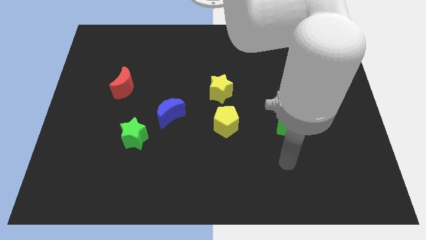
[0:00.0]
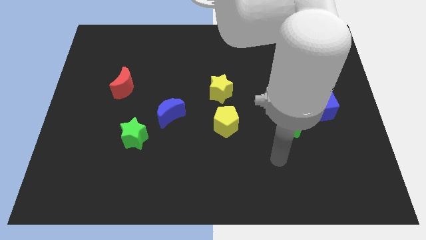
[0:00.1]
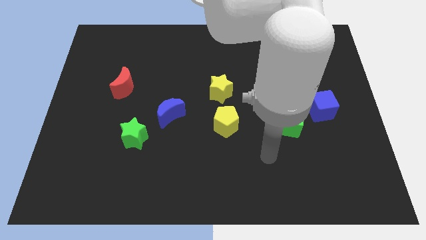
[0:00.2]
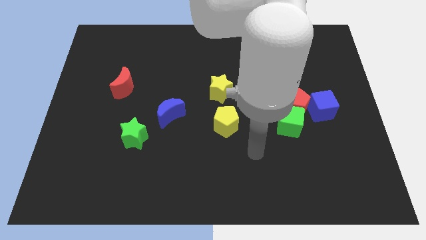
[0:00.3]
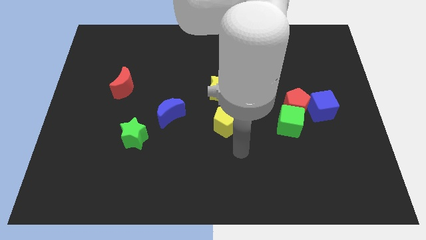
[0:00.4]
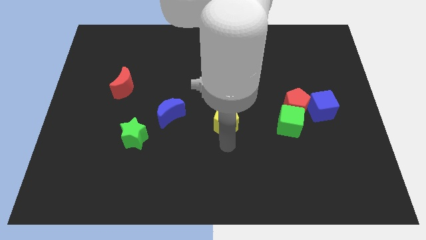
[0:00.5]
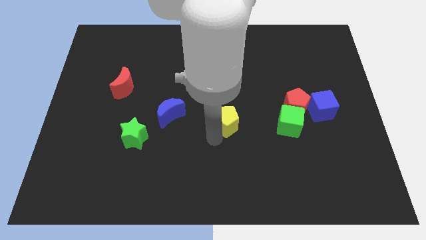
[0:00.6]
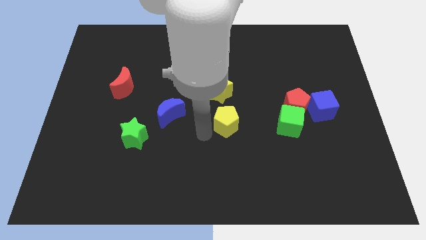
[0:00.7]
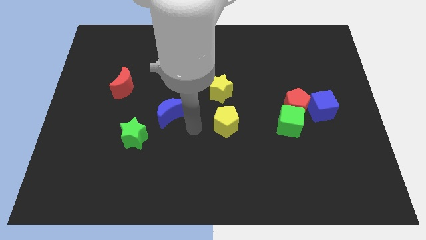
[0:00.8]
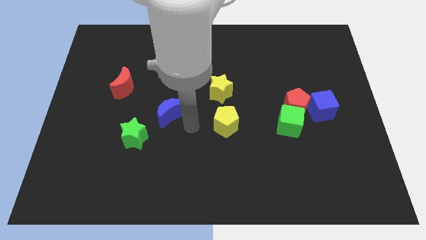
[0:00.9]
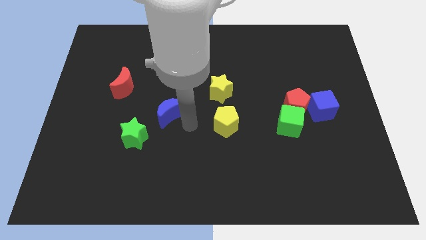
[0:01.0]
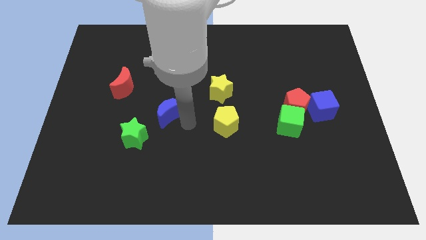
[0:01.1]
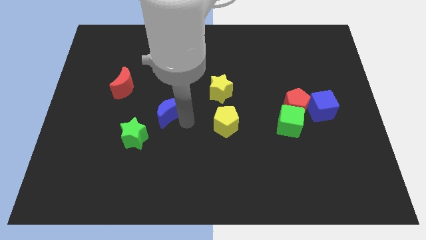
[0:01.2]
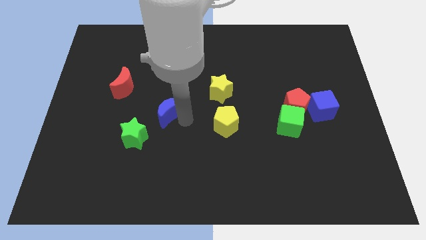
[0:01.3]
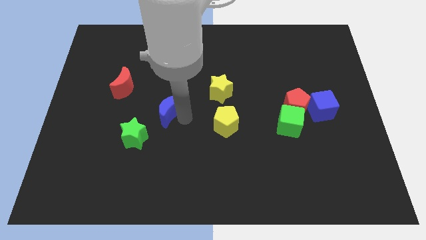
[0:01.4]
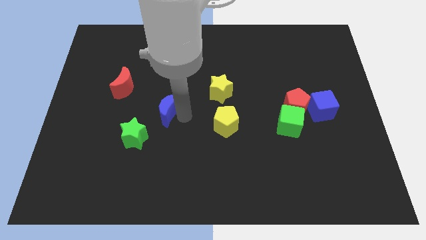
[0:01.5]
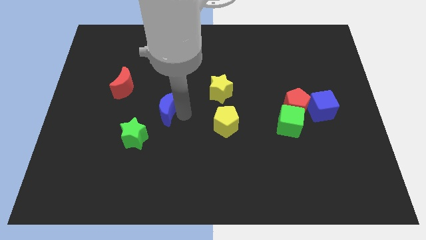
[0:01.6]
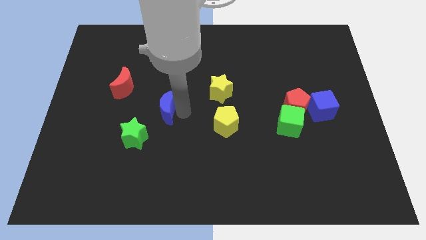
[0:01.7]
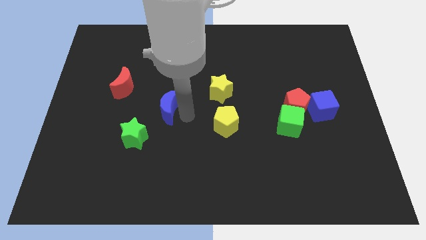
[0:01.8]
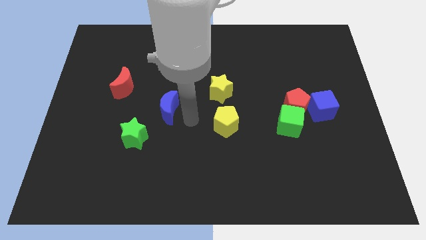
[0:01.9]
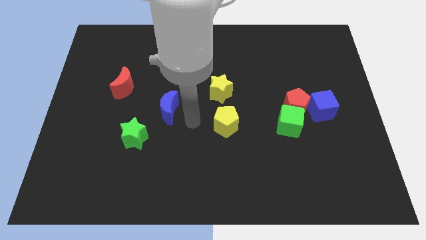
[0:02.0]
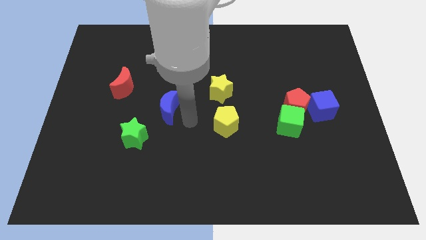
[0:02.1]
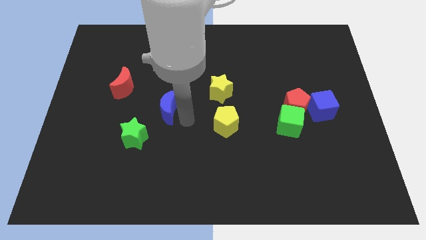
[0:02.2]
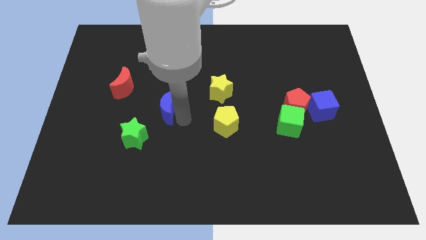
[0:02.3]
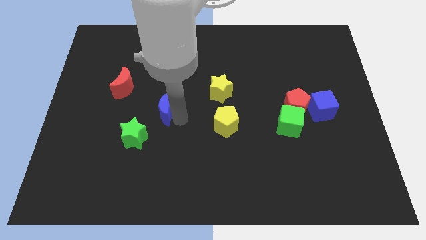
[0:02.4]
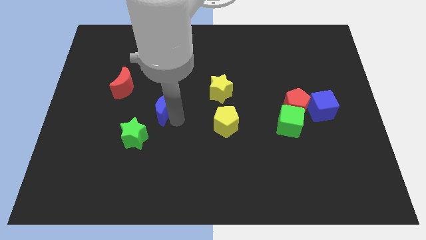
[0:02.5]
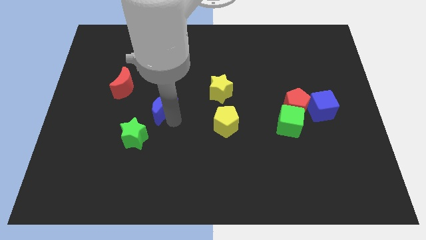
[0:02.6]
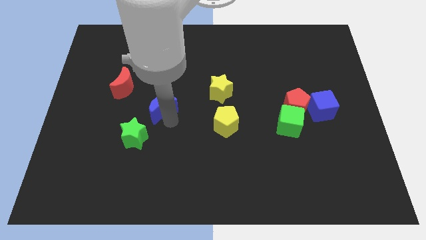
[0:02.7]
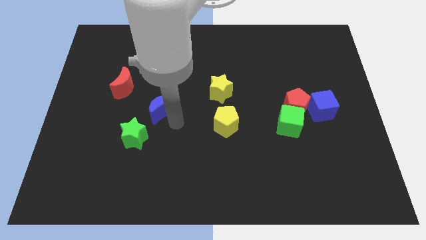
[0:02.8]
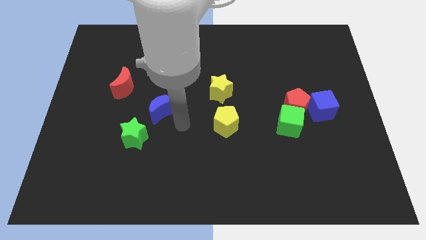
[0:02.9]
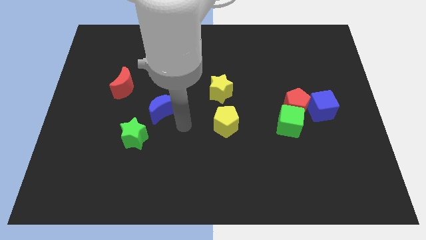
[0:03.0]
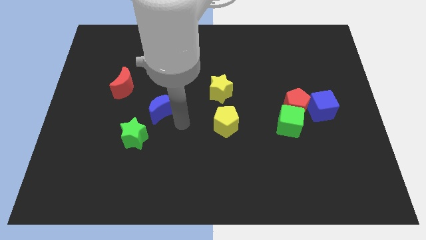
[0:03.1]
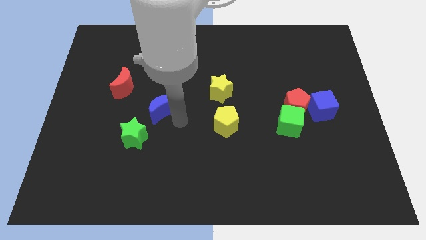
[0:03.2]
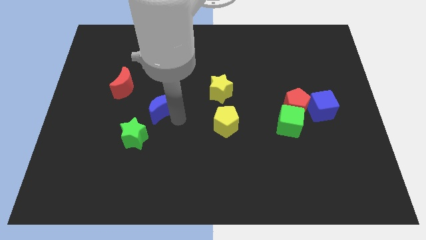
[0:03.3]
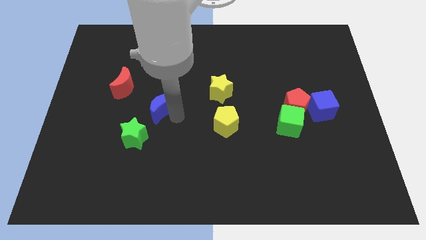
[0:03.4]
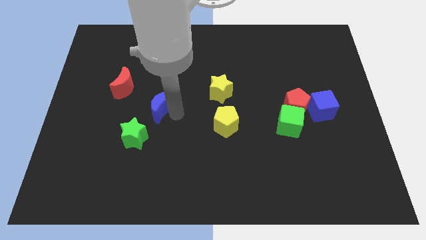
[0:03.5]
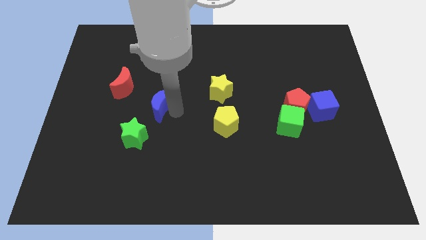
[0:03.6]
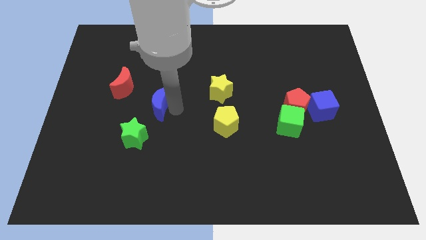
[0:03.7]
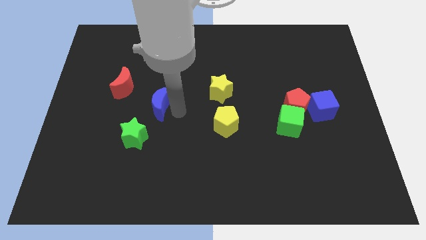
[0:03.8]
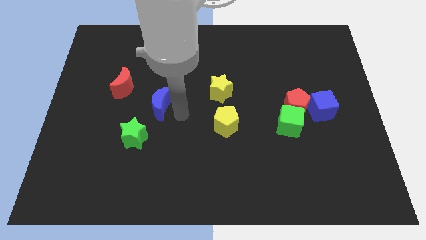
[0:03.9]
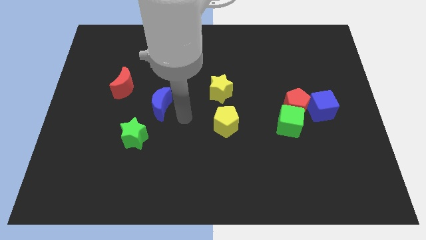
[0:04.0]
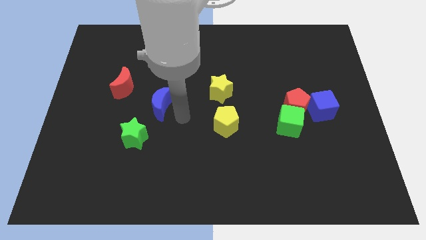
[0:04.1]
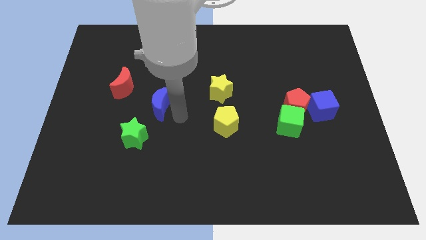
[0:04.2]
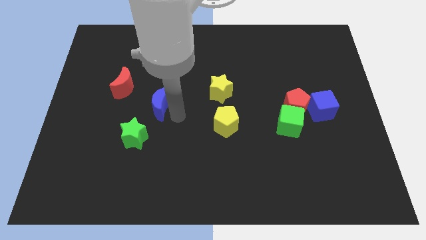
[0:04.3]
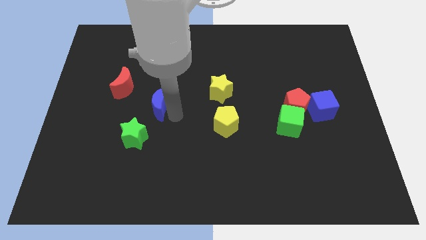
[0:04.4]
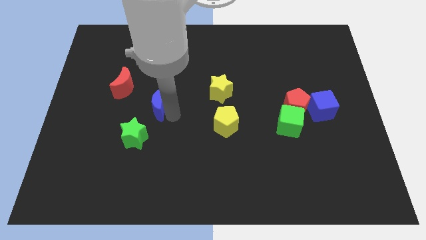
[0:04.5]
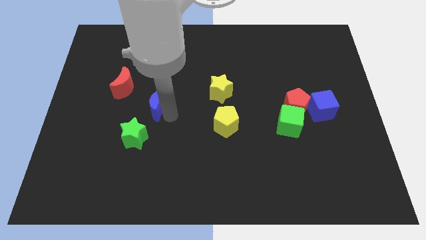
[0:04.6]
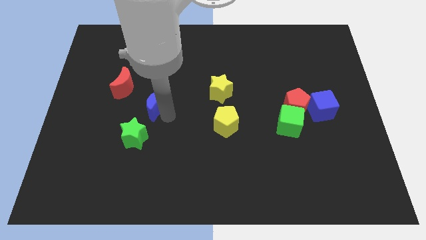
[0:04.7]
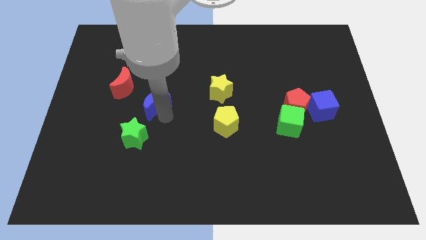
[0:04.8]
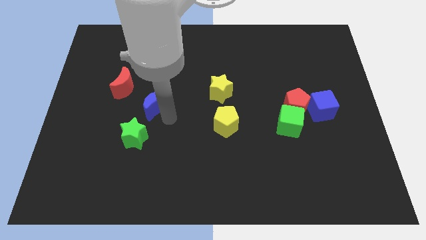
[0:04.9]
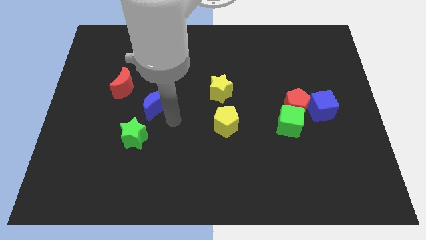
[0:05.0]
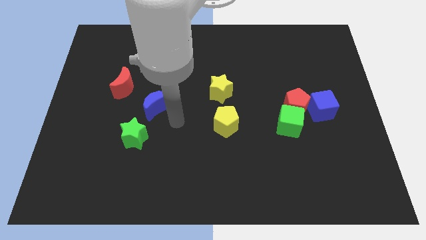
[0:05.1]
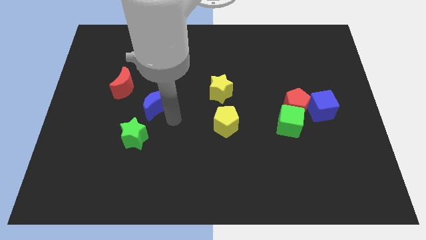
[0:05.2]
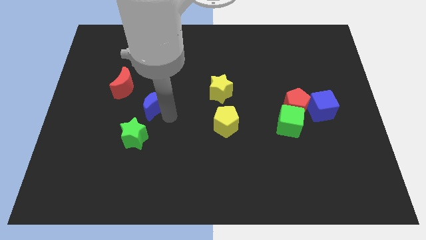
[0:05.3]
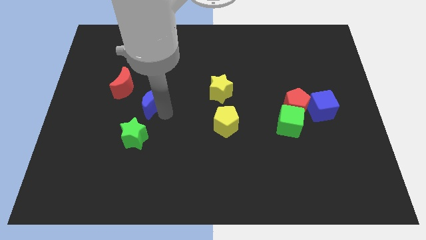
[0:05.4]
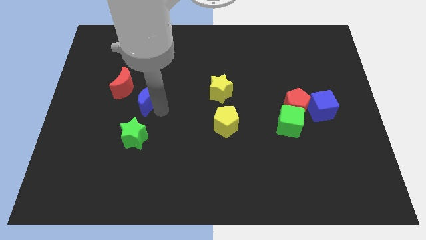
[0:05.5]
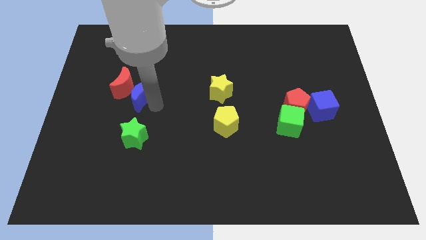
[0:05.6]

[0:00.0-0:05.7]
put the blue moon close to the red moon

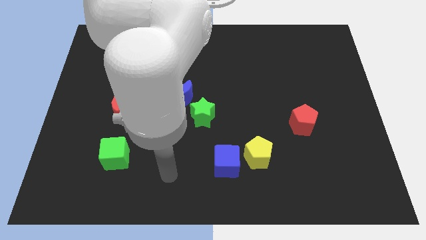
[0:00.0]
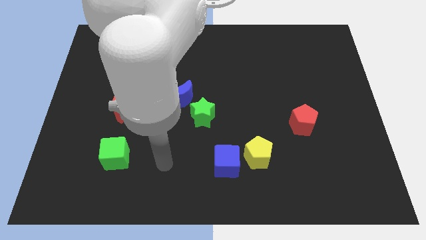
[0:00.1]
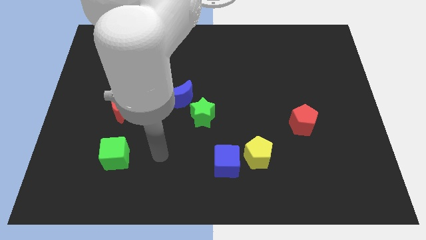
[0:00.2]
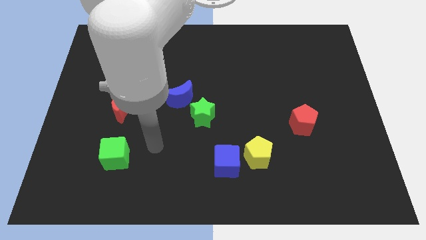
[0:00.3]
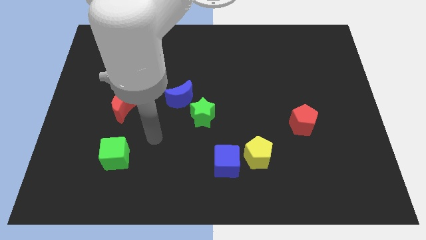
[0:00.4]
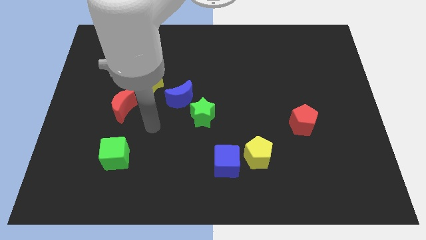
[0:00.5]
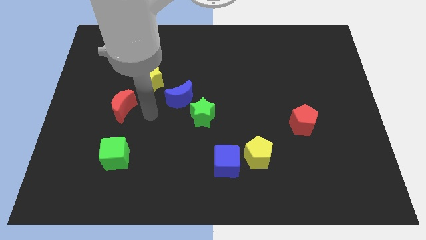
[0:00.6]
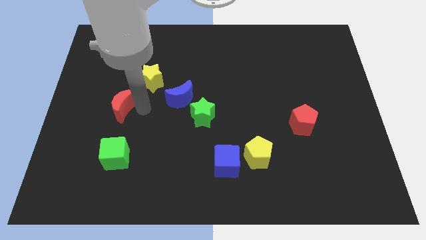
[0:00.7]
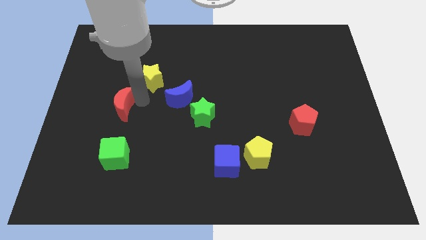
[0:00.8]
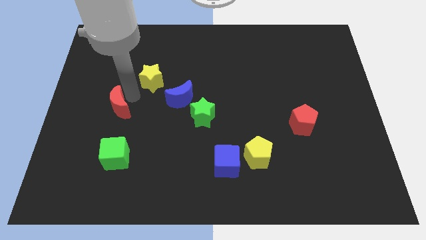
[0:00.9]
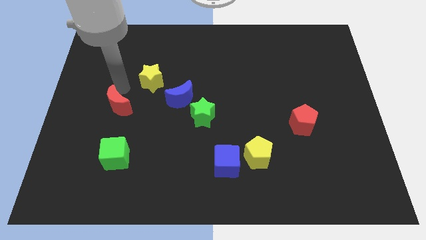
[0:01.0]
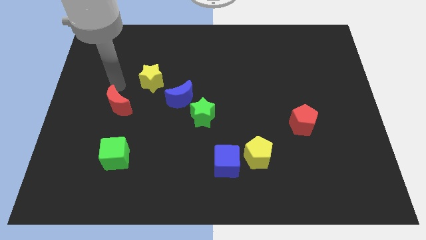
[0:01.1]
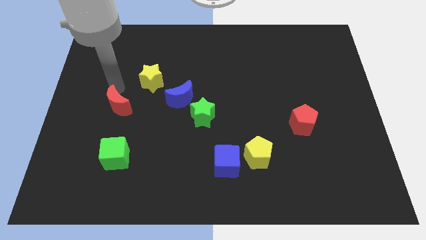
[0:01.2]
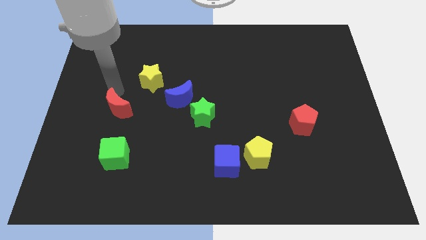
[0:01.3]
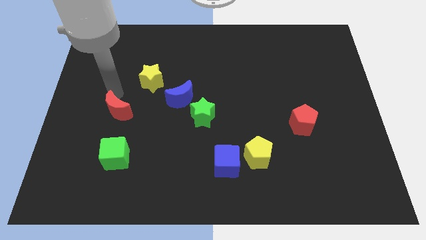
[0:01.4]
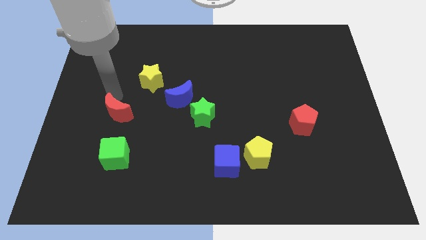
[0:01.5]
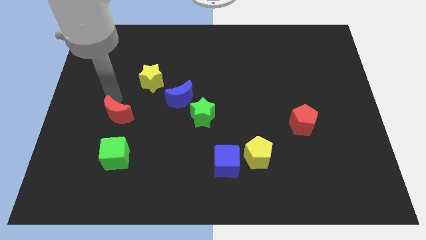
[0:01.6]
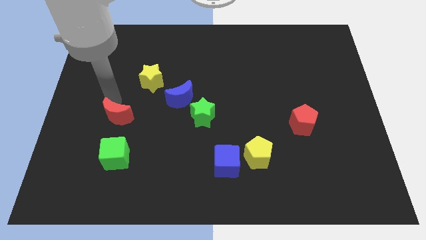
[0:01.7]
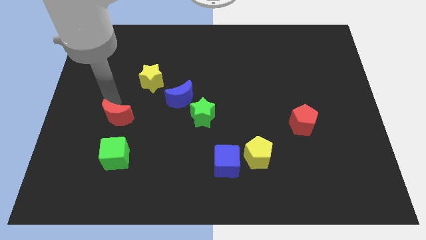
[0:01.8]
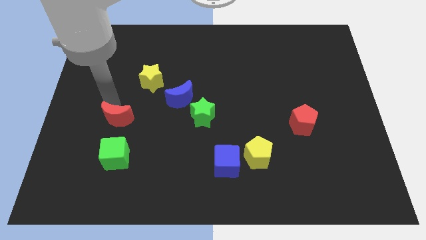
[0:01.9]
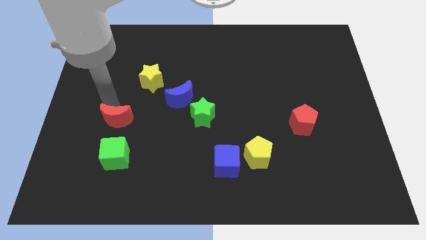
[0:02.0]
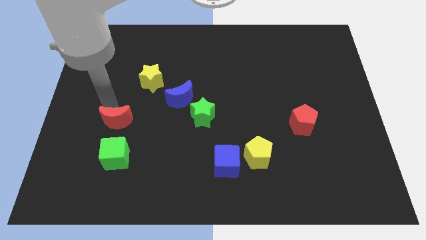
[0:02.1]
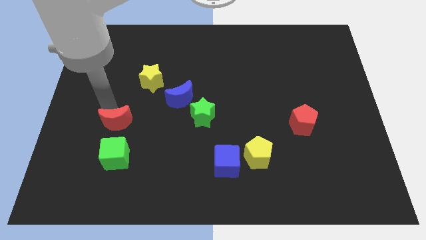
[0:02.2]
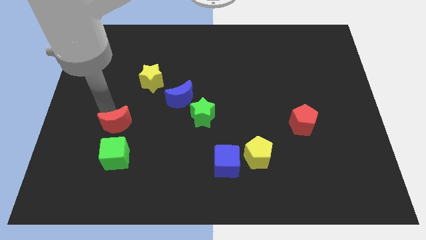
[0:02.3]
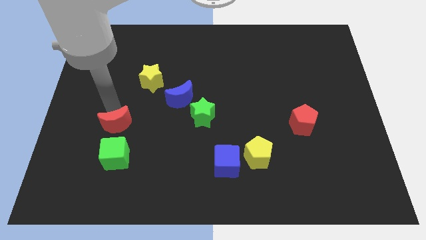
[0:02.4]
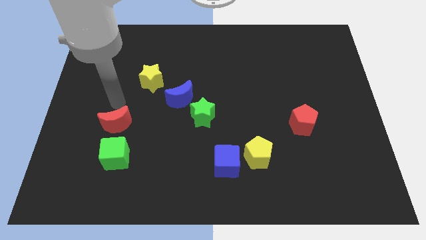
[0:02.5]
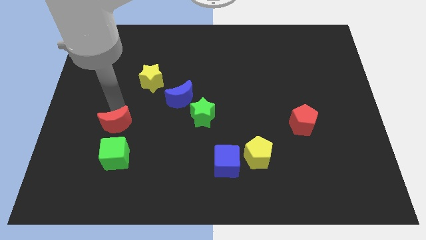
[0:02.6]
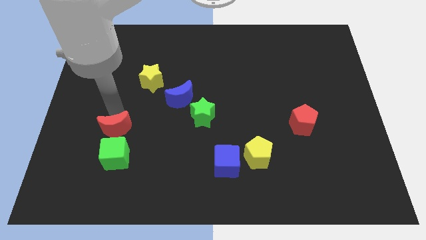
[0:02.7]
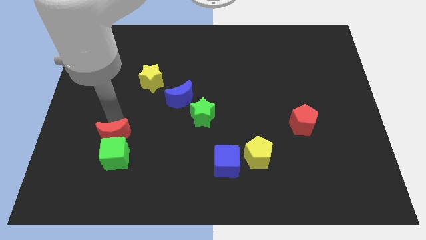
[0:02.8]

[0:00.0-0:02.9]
put the red moon close to the green cube
